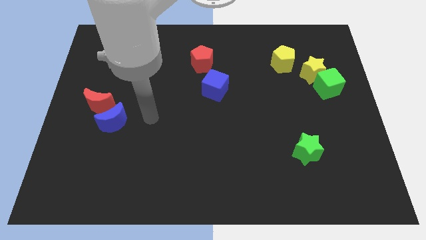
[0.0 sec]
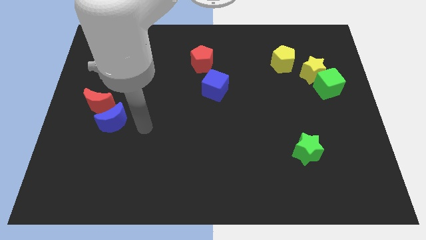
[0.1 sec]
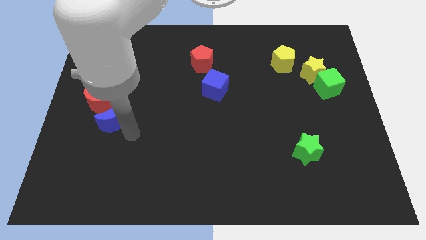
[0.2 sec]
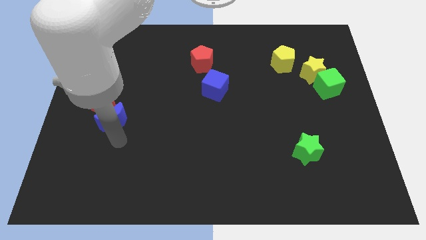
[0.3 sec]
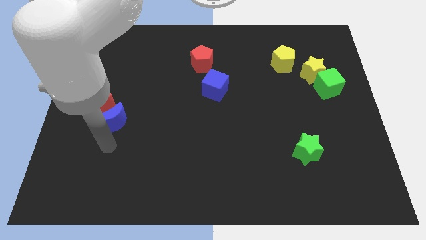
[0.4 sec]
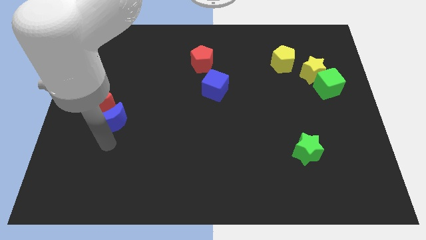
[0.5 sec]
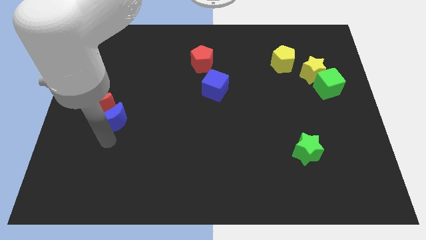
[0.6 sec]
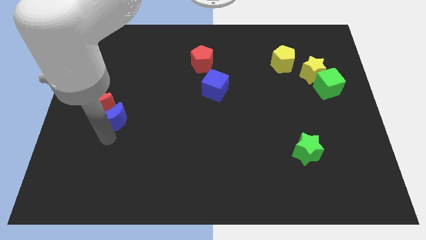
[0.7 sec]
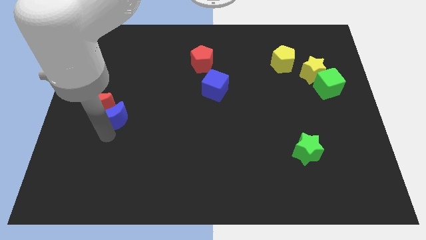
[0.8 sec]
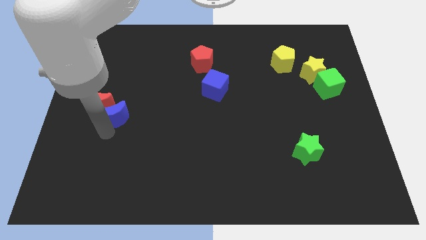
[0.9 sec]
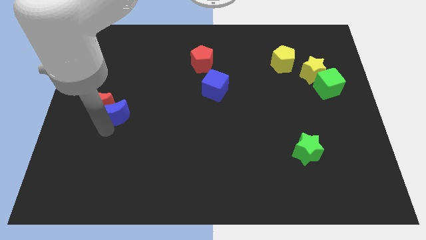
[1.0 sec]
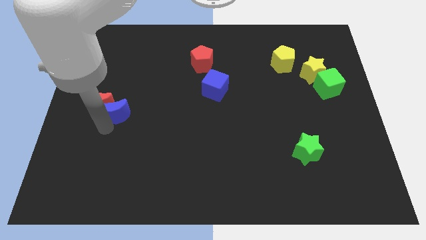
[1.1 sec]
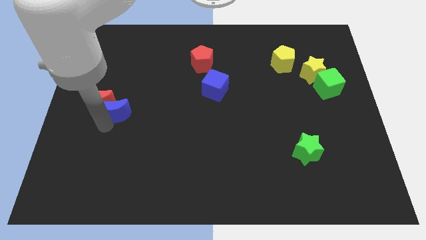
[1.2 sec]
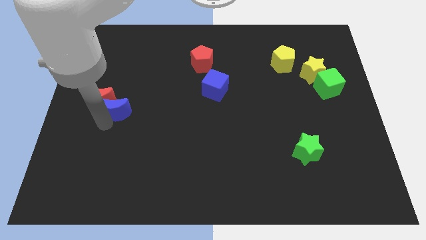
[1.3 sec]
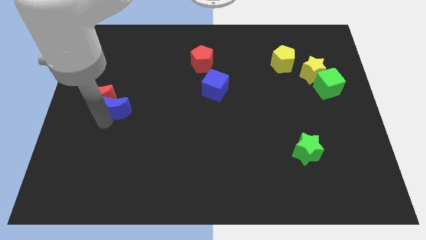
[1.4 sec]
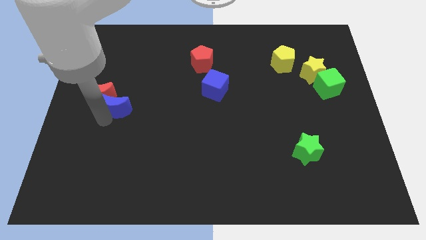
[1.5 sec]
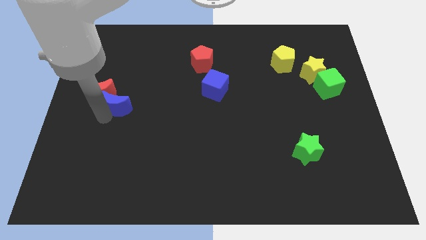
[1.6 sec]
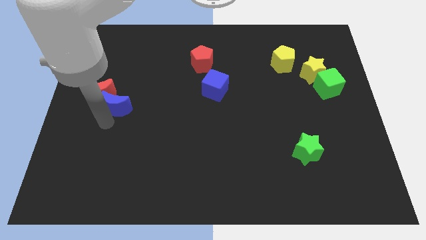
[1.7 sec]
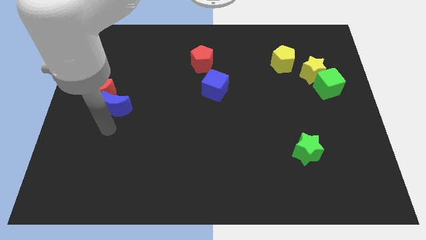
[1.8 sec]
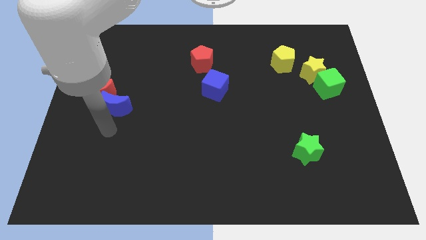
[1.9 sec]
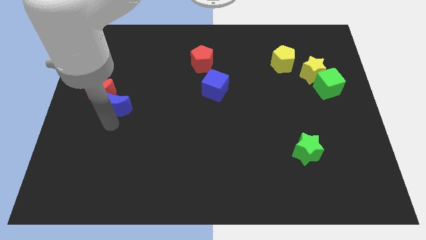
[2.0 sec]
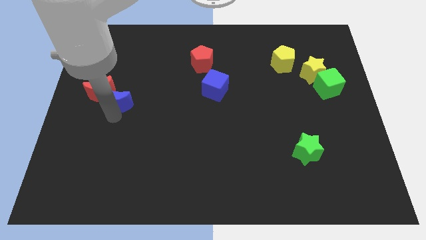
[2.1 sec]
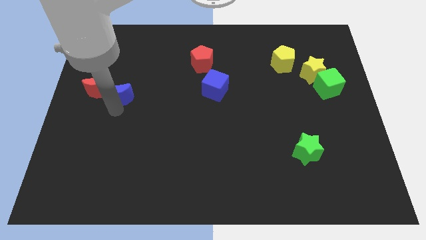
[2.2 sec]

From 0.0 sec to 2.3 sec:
push the blue moon slightly up

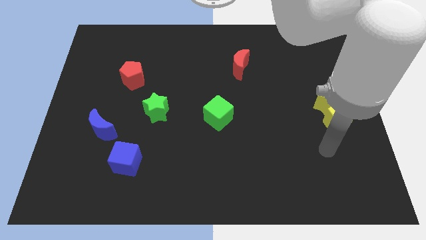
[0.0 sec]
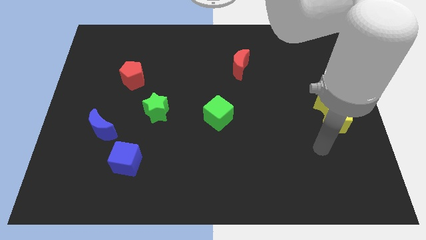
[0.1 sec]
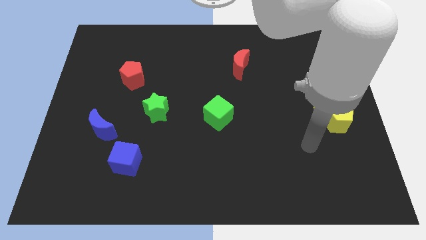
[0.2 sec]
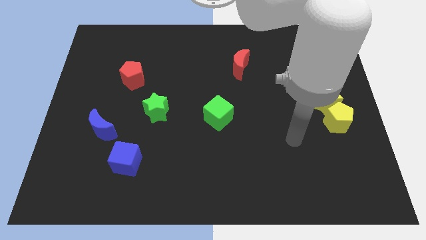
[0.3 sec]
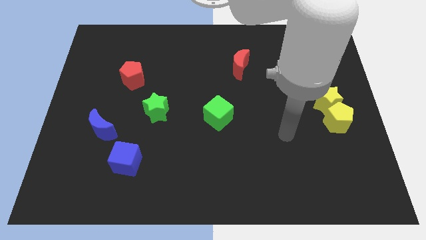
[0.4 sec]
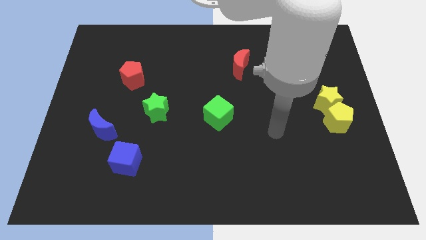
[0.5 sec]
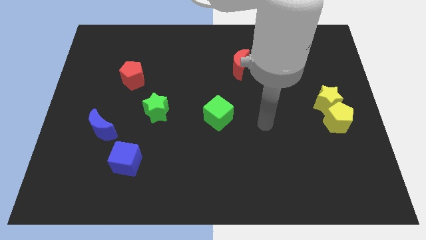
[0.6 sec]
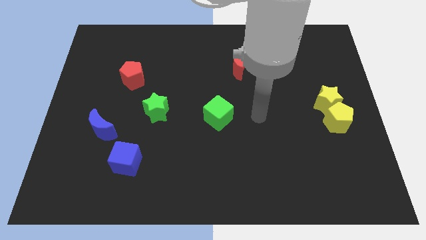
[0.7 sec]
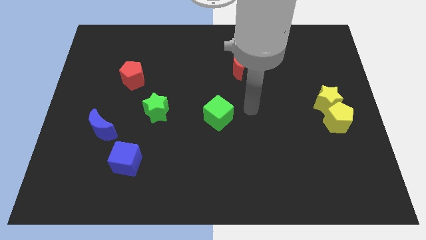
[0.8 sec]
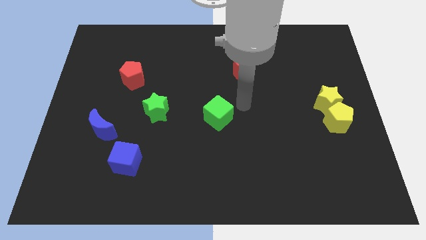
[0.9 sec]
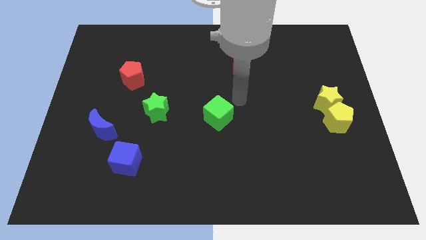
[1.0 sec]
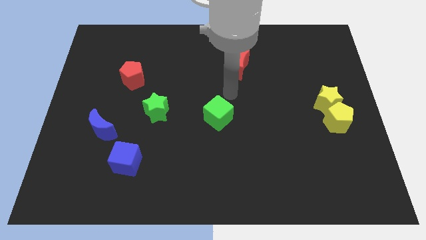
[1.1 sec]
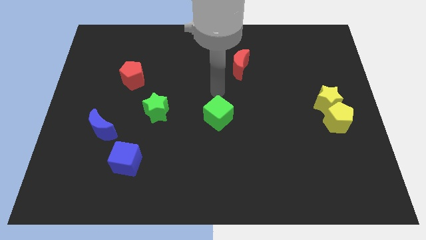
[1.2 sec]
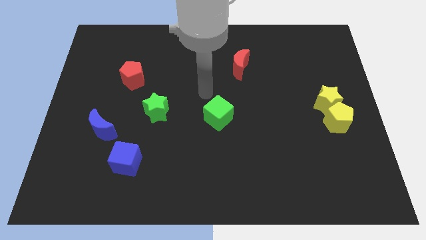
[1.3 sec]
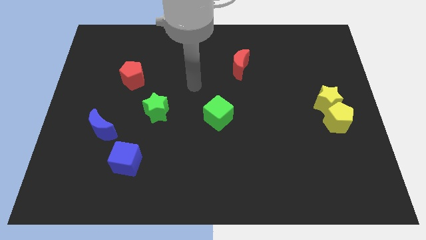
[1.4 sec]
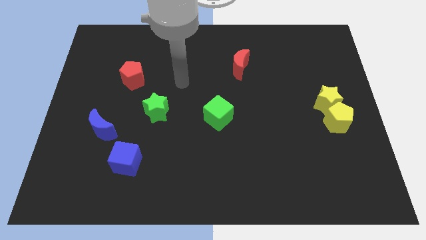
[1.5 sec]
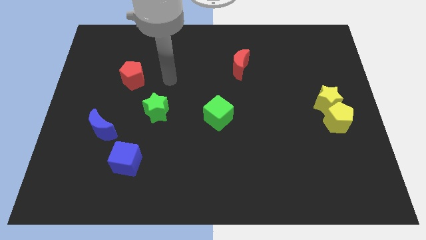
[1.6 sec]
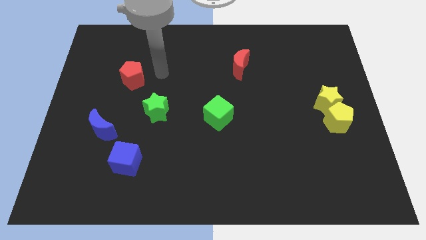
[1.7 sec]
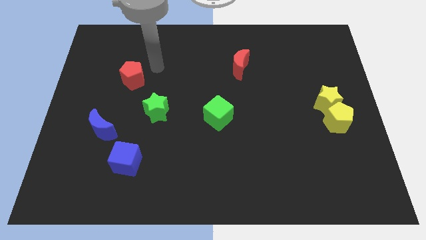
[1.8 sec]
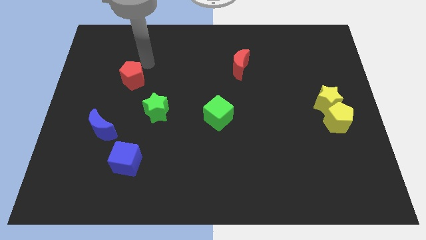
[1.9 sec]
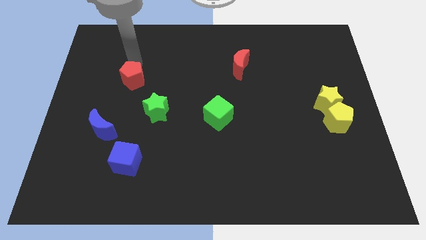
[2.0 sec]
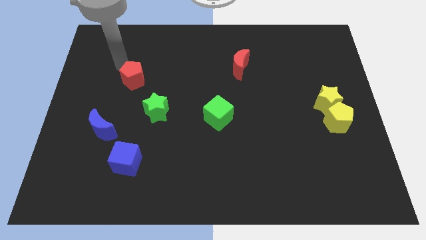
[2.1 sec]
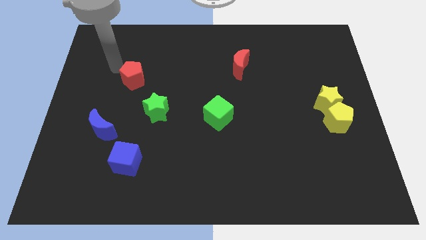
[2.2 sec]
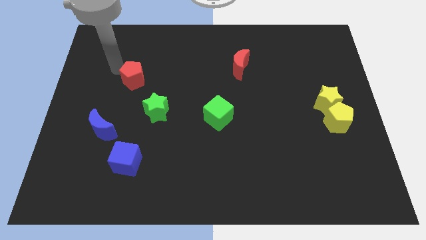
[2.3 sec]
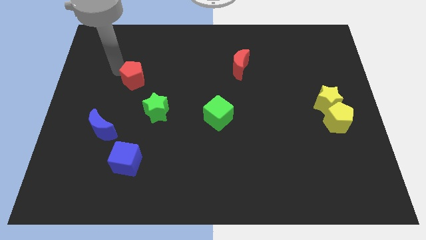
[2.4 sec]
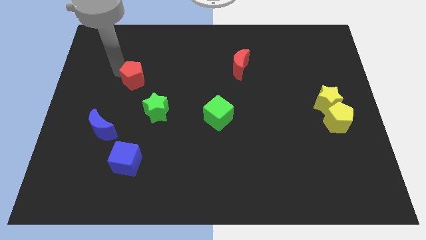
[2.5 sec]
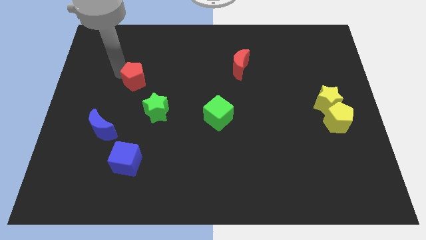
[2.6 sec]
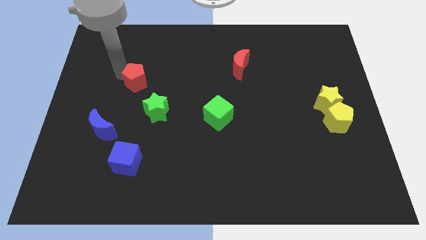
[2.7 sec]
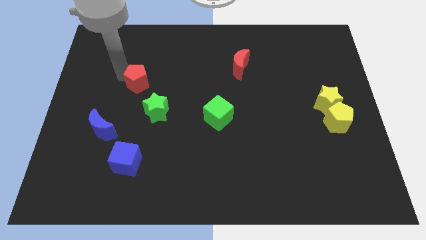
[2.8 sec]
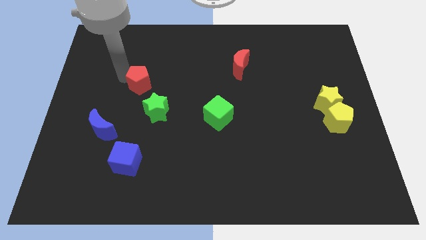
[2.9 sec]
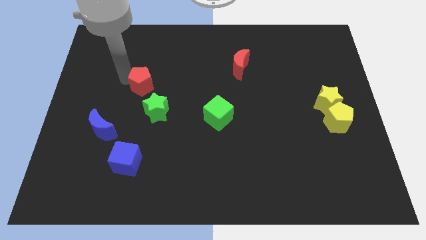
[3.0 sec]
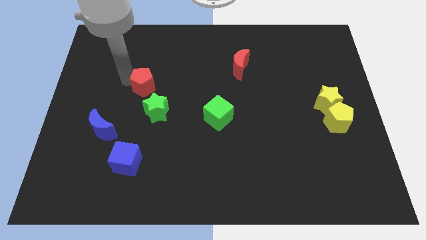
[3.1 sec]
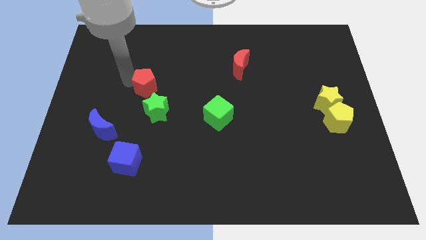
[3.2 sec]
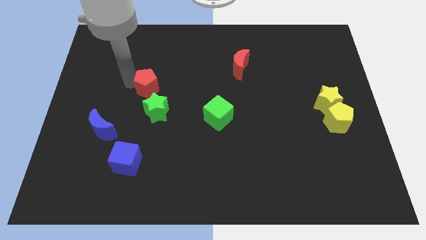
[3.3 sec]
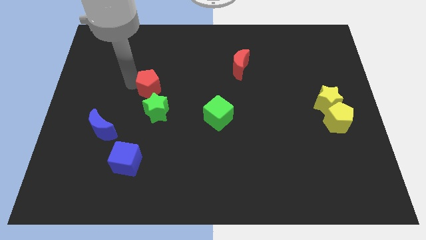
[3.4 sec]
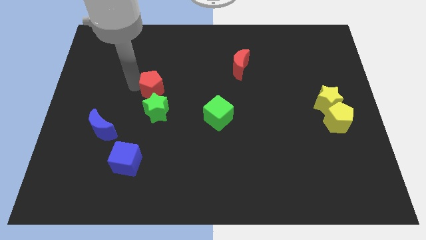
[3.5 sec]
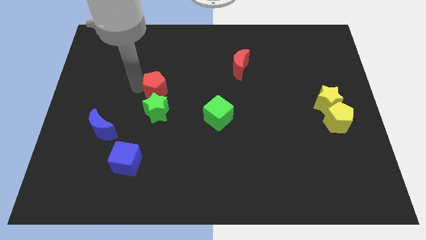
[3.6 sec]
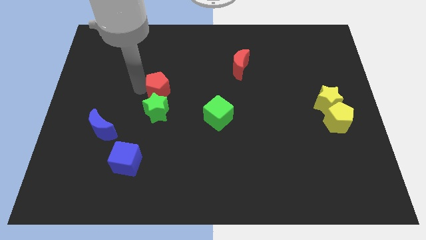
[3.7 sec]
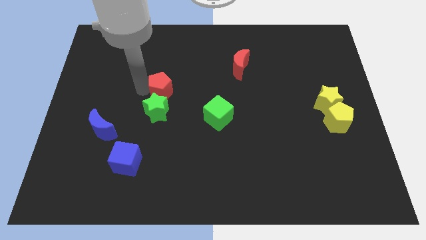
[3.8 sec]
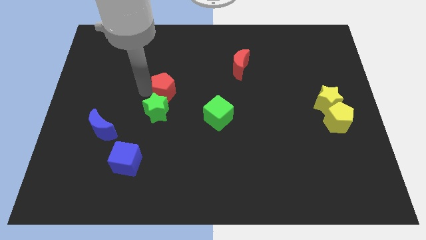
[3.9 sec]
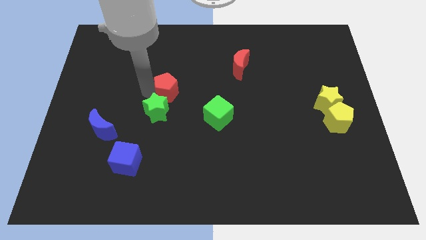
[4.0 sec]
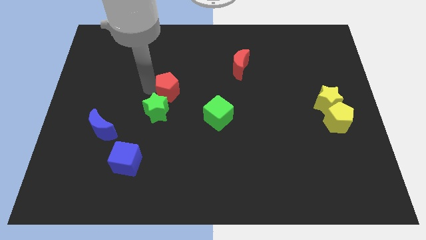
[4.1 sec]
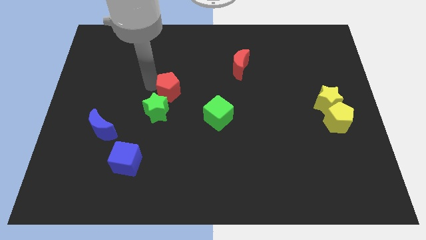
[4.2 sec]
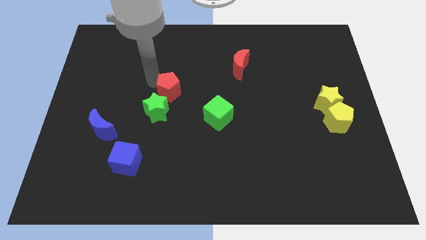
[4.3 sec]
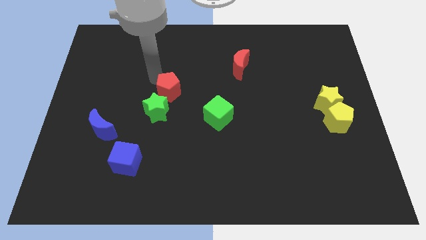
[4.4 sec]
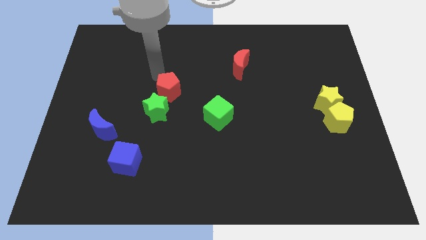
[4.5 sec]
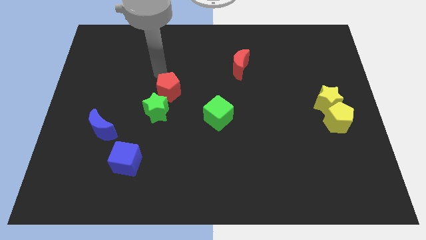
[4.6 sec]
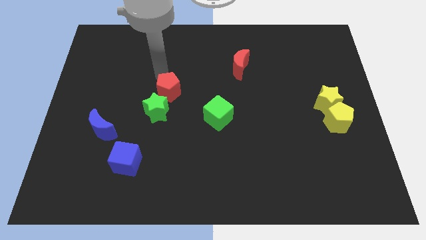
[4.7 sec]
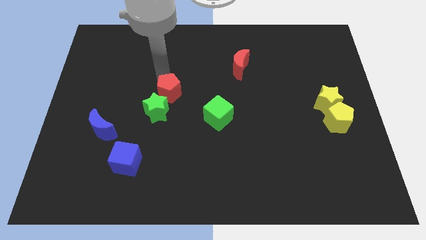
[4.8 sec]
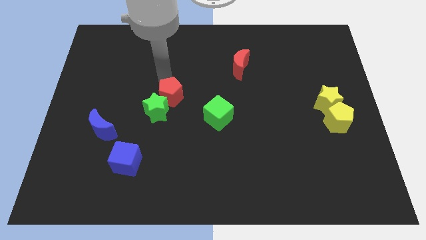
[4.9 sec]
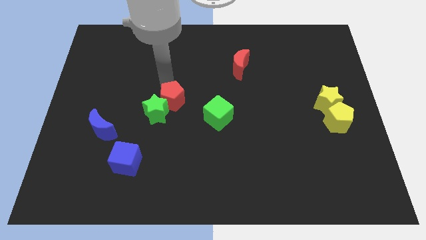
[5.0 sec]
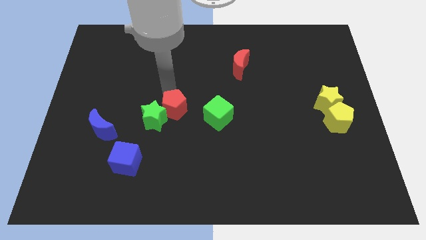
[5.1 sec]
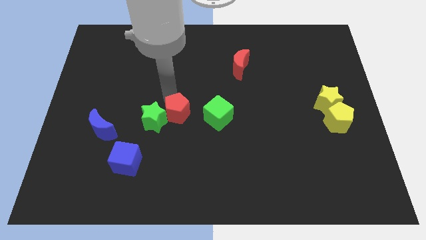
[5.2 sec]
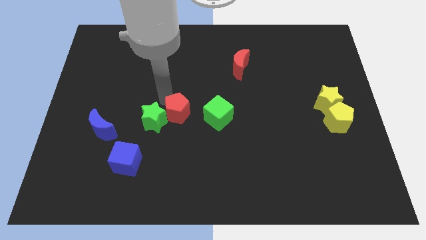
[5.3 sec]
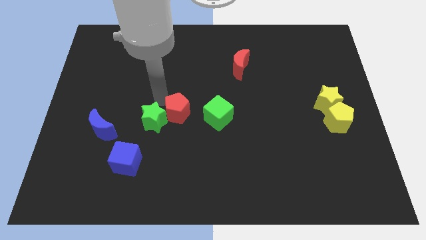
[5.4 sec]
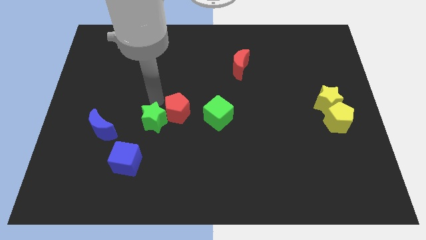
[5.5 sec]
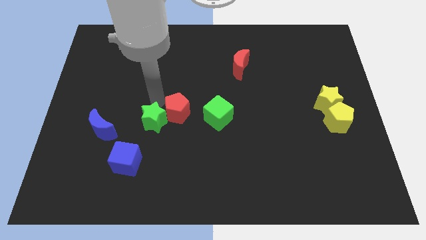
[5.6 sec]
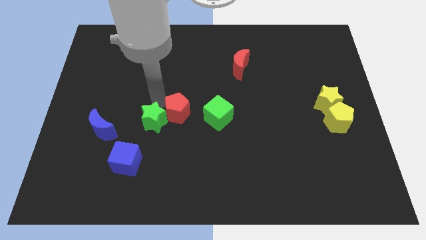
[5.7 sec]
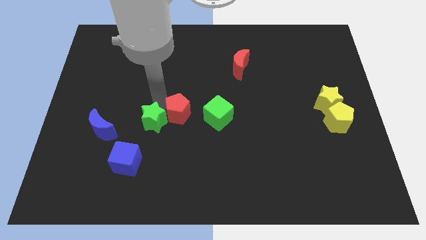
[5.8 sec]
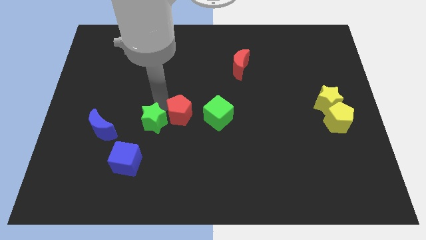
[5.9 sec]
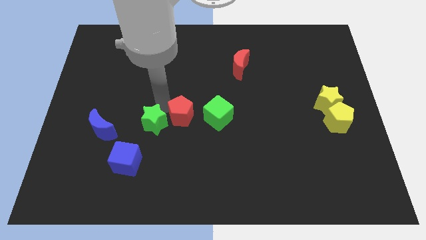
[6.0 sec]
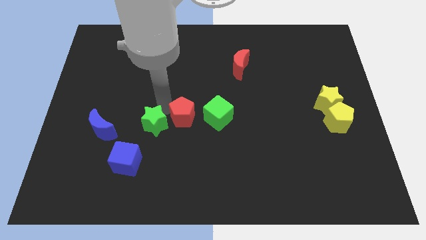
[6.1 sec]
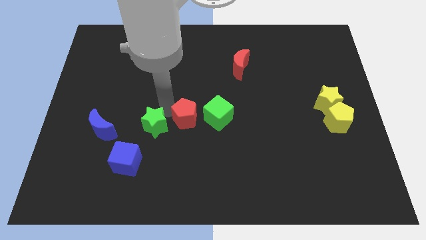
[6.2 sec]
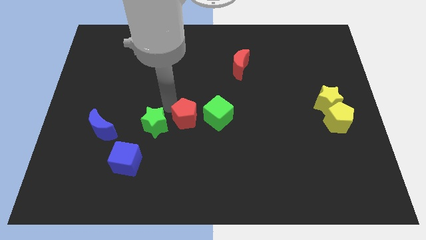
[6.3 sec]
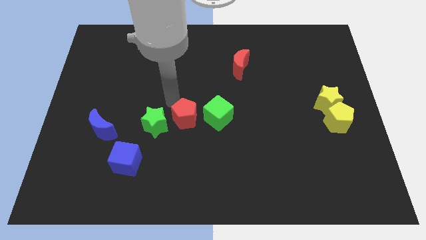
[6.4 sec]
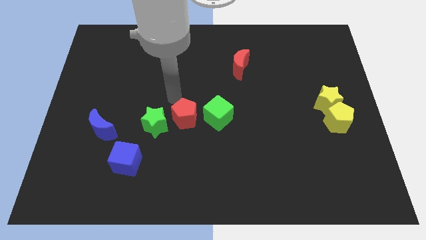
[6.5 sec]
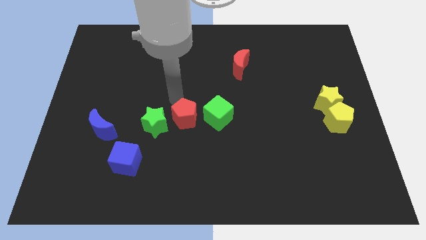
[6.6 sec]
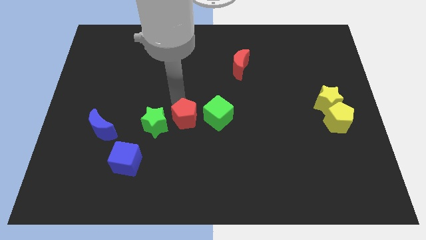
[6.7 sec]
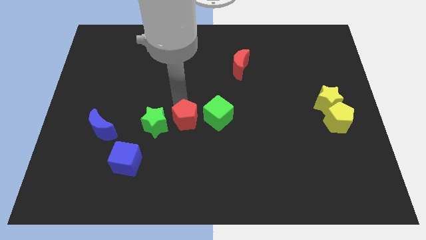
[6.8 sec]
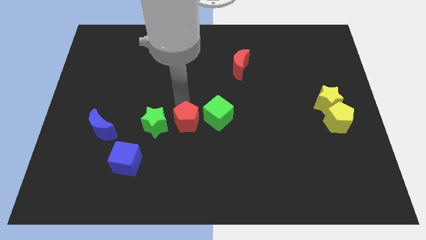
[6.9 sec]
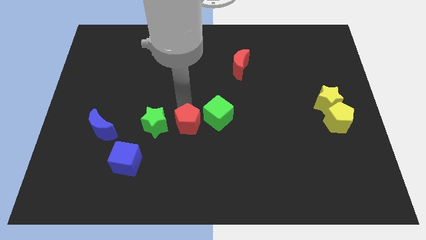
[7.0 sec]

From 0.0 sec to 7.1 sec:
slide the red pentagon down and to the right
